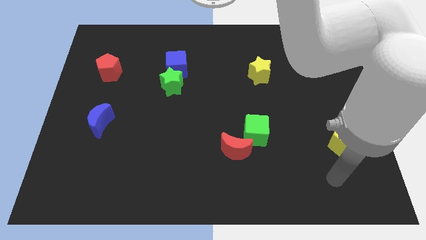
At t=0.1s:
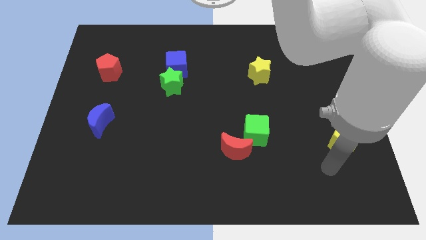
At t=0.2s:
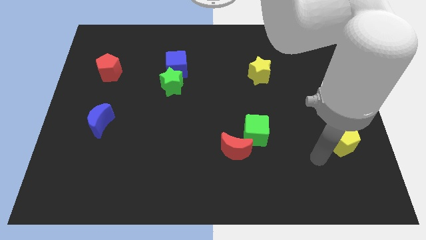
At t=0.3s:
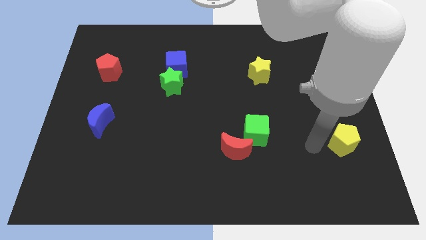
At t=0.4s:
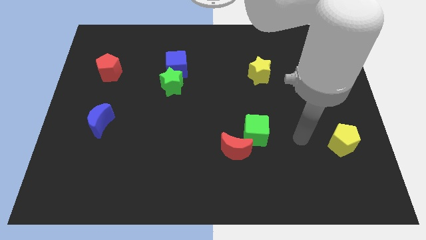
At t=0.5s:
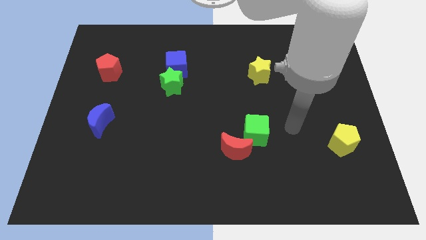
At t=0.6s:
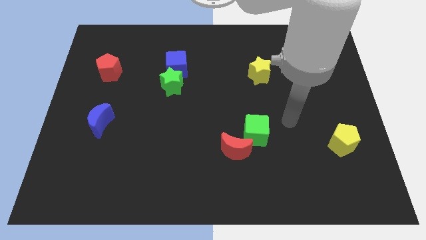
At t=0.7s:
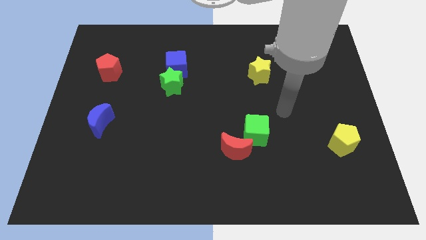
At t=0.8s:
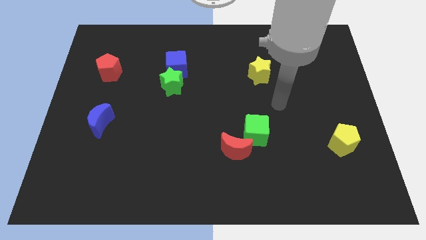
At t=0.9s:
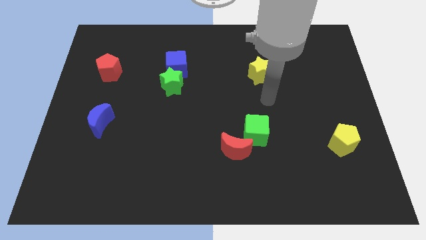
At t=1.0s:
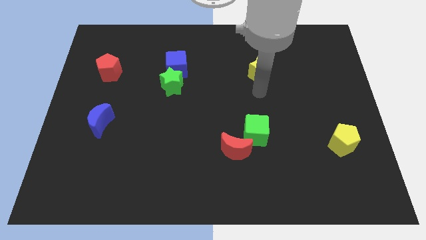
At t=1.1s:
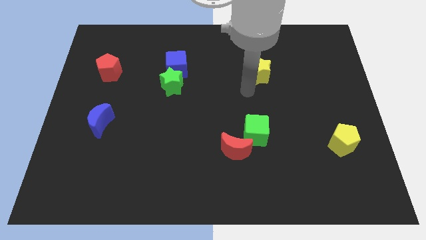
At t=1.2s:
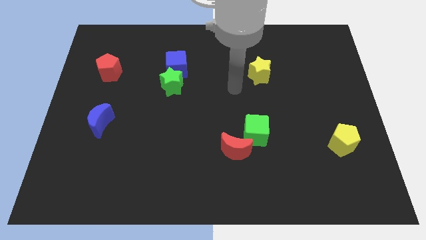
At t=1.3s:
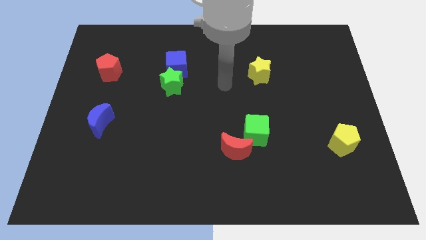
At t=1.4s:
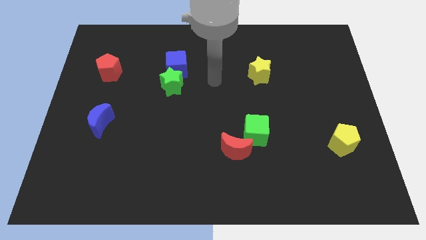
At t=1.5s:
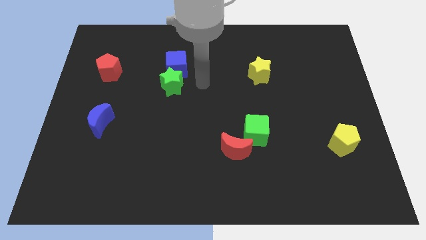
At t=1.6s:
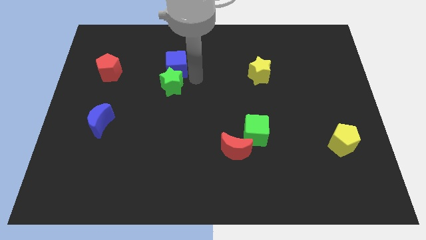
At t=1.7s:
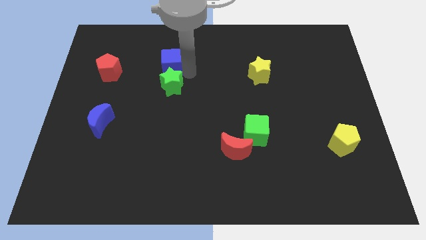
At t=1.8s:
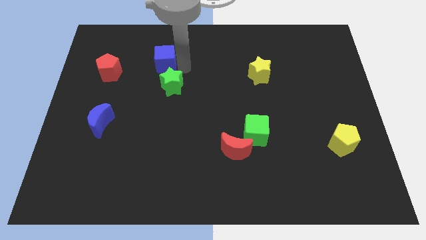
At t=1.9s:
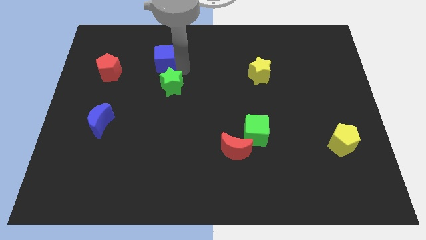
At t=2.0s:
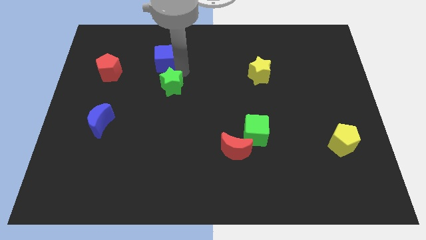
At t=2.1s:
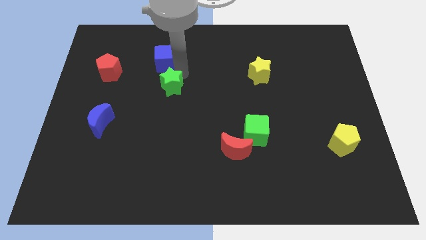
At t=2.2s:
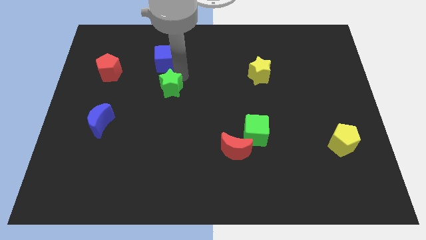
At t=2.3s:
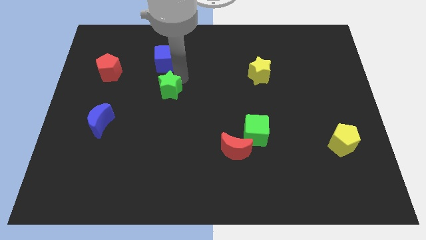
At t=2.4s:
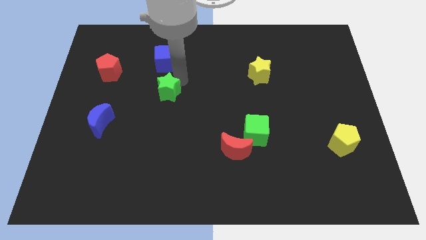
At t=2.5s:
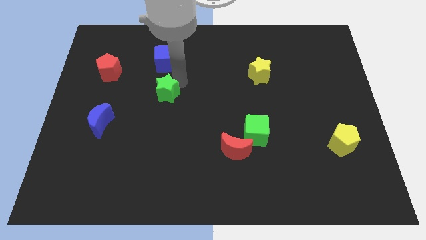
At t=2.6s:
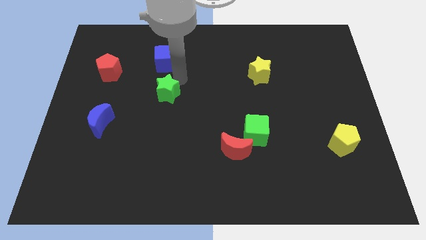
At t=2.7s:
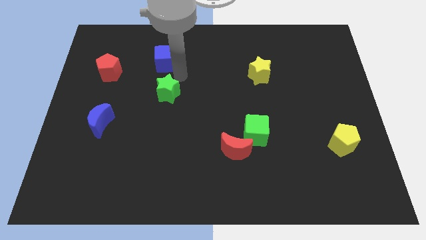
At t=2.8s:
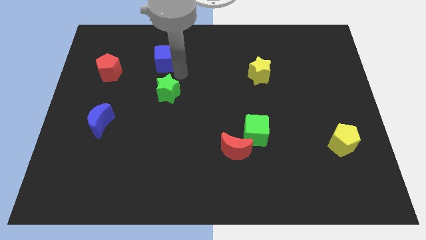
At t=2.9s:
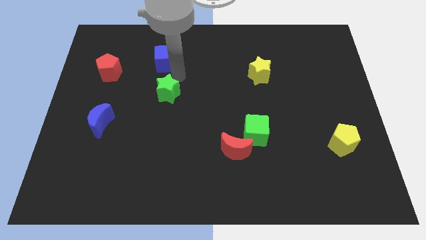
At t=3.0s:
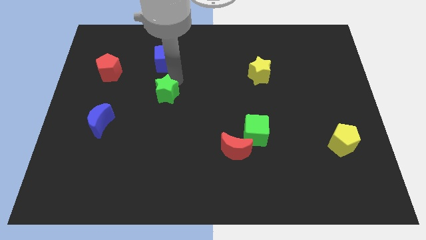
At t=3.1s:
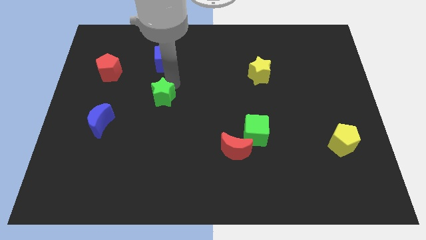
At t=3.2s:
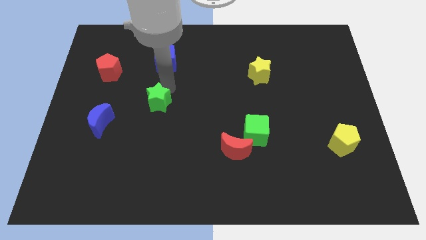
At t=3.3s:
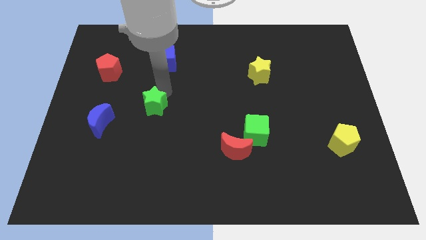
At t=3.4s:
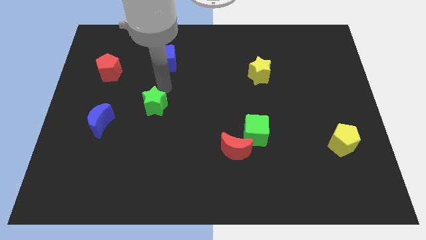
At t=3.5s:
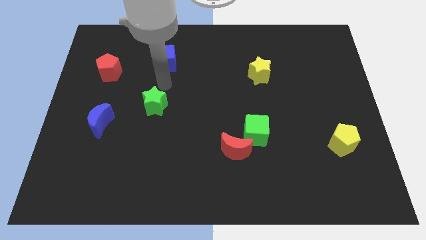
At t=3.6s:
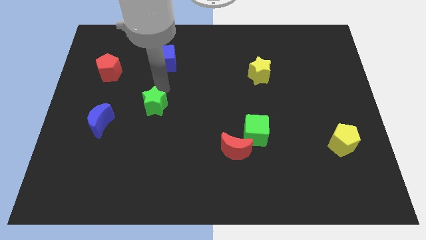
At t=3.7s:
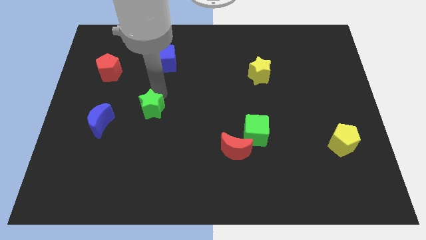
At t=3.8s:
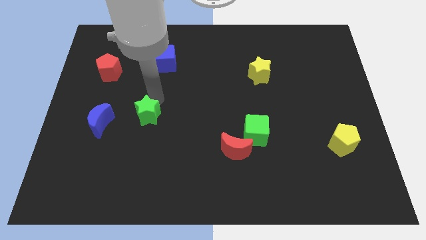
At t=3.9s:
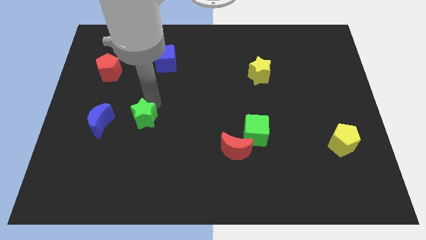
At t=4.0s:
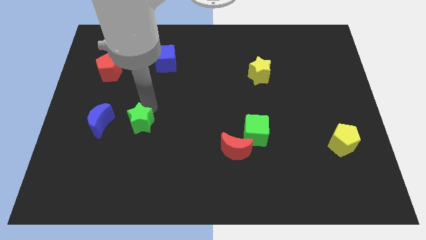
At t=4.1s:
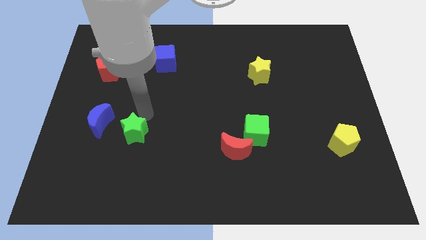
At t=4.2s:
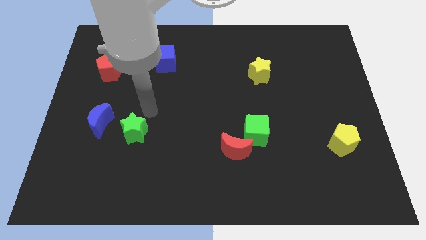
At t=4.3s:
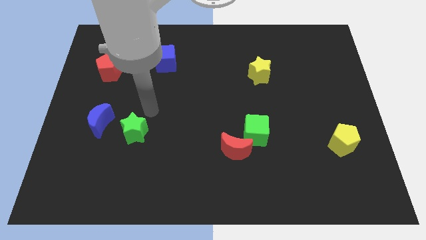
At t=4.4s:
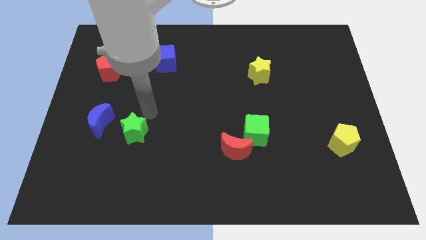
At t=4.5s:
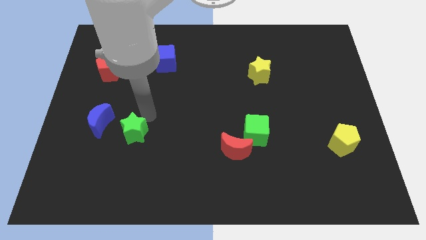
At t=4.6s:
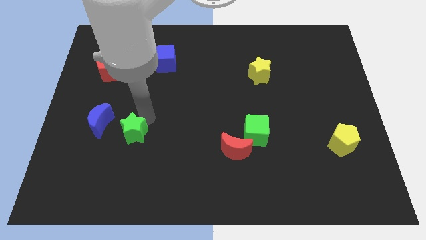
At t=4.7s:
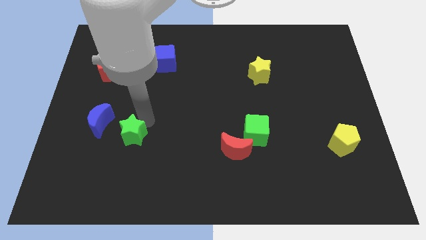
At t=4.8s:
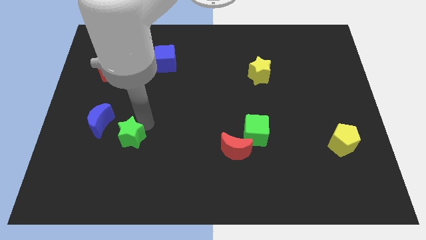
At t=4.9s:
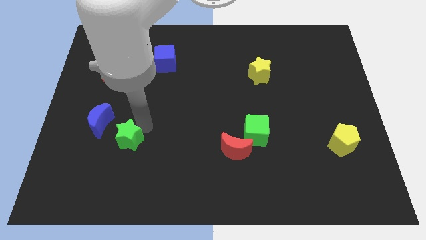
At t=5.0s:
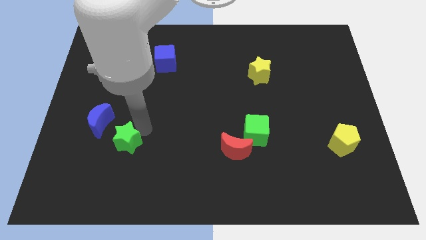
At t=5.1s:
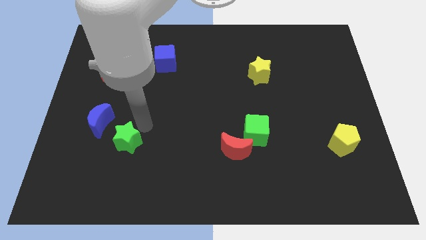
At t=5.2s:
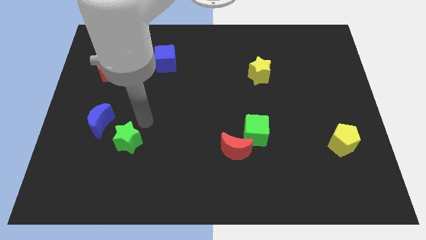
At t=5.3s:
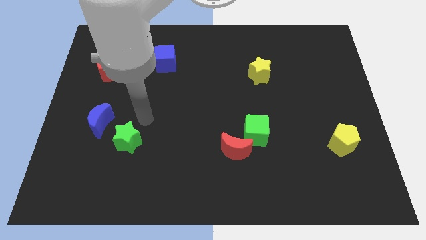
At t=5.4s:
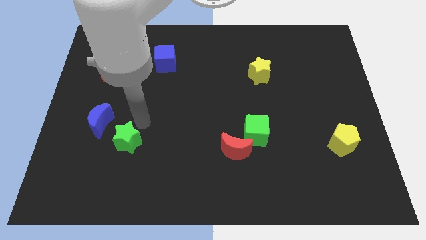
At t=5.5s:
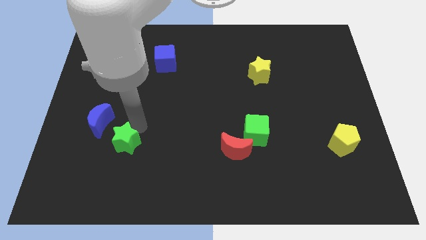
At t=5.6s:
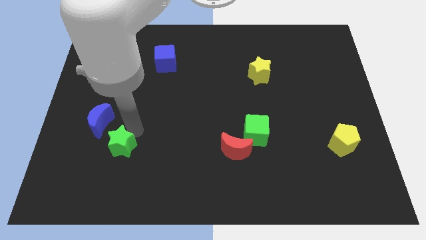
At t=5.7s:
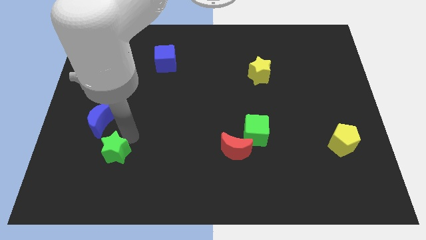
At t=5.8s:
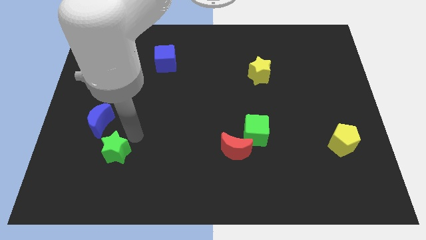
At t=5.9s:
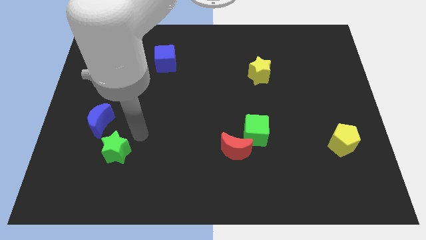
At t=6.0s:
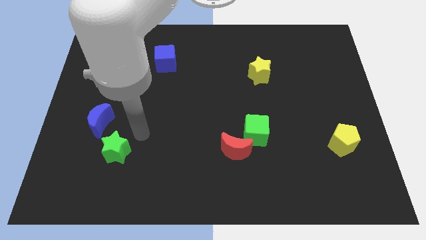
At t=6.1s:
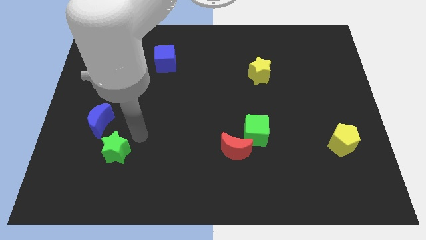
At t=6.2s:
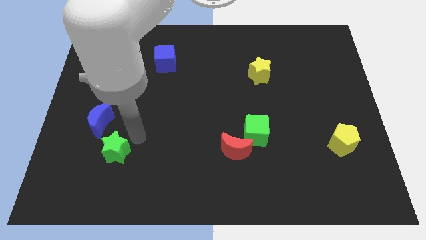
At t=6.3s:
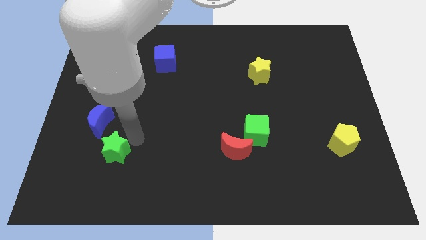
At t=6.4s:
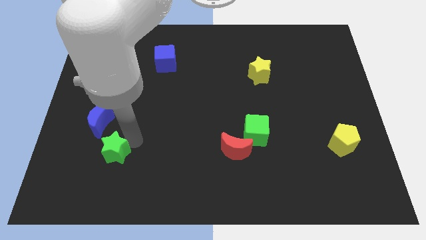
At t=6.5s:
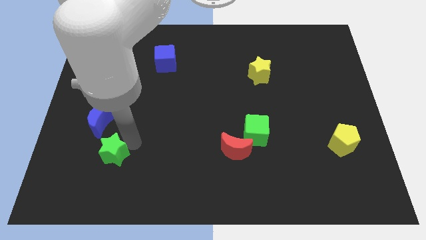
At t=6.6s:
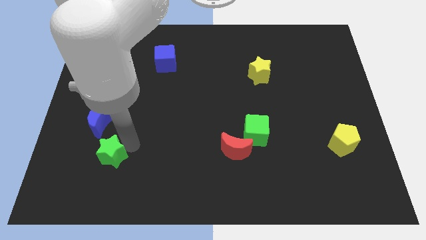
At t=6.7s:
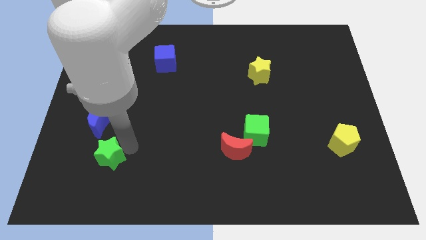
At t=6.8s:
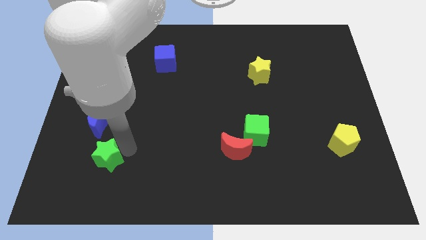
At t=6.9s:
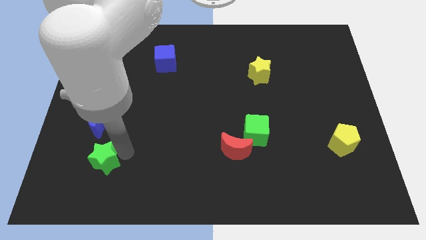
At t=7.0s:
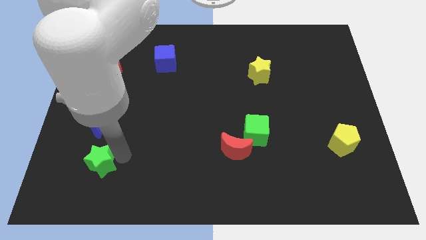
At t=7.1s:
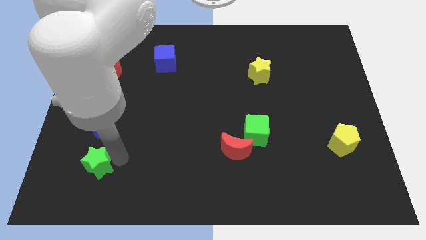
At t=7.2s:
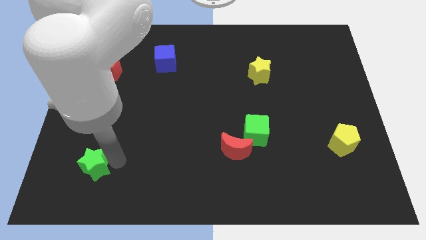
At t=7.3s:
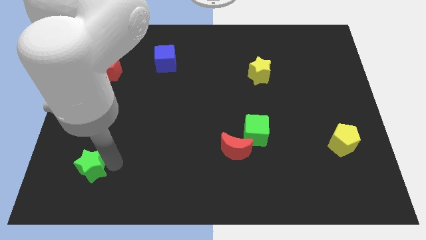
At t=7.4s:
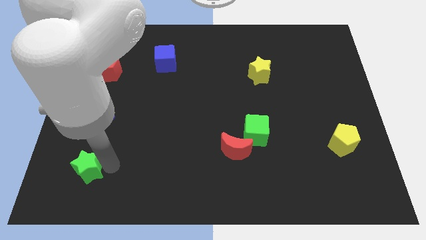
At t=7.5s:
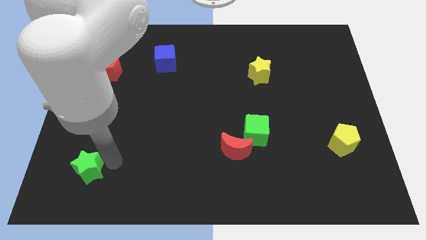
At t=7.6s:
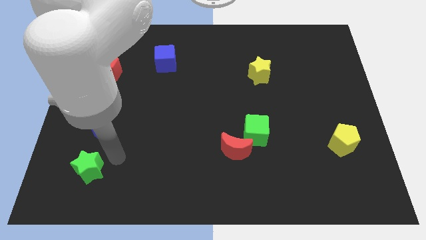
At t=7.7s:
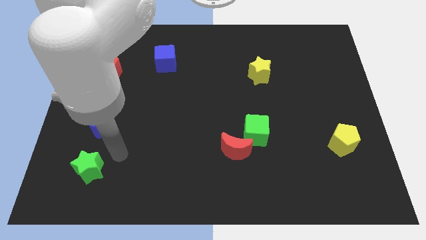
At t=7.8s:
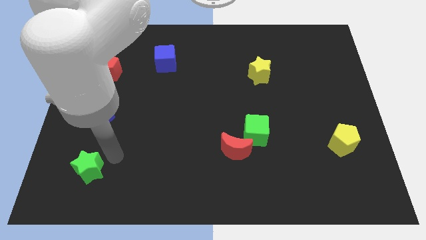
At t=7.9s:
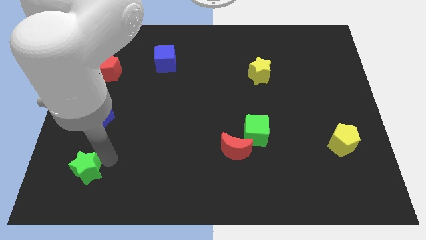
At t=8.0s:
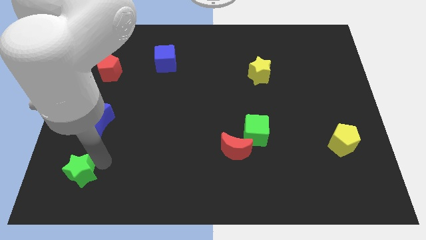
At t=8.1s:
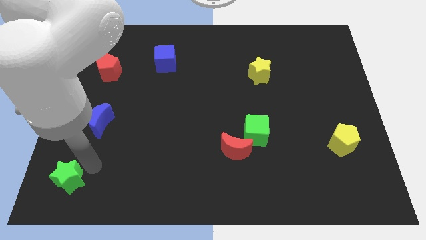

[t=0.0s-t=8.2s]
push the green star to the bottom left of the board
